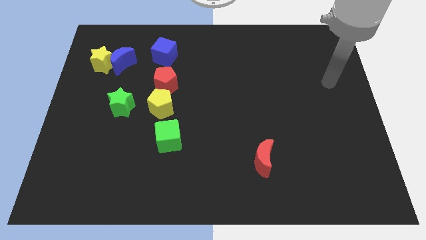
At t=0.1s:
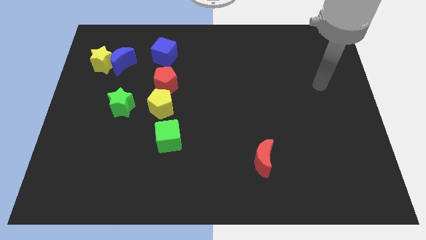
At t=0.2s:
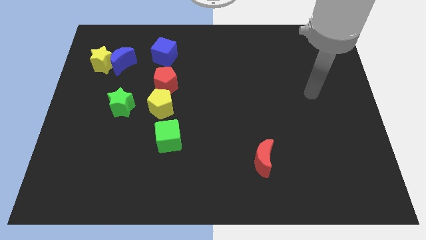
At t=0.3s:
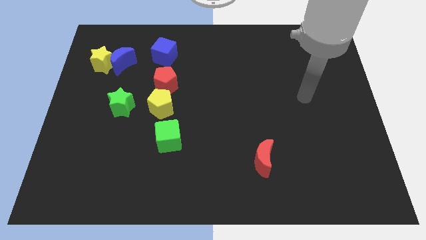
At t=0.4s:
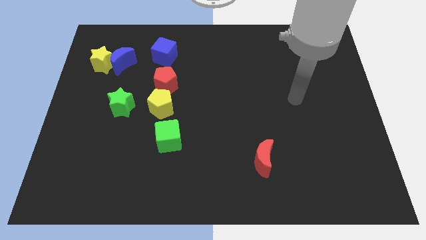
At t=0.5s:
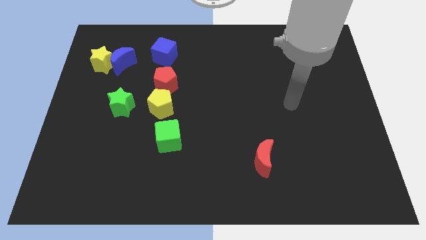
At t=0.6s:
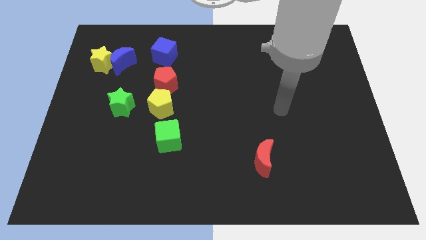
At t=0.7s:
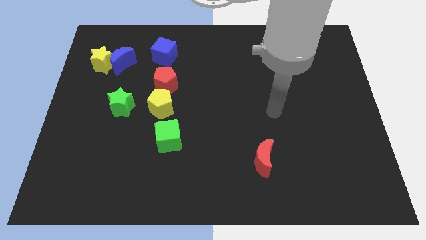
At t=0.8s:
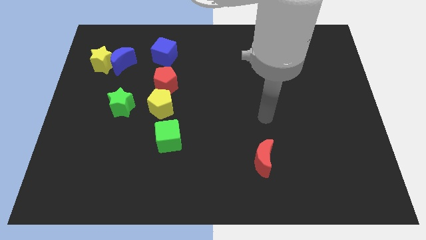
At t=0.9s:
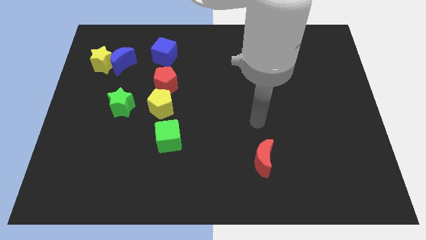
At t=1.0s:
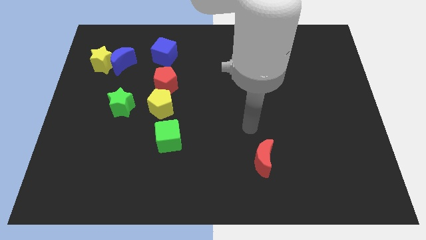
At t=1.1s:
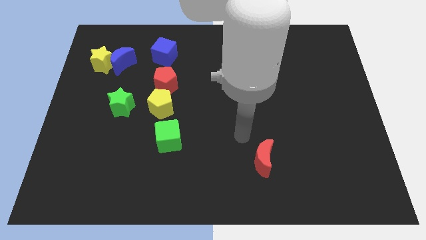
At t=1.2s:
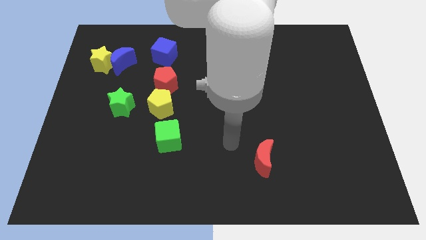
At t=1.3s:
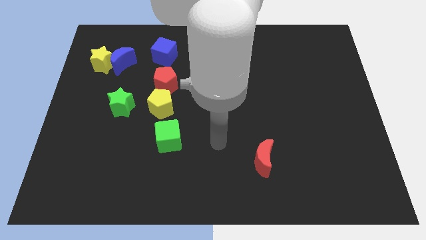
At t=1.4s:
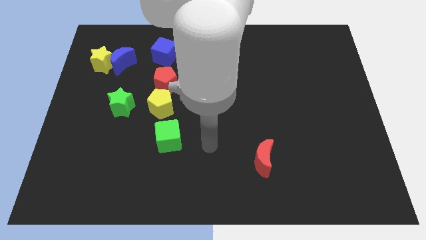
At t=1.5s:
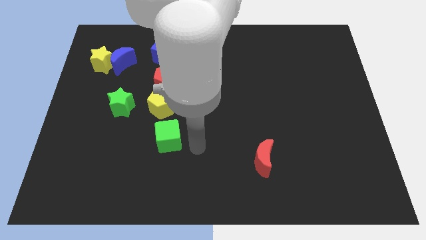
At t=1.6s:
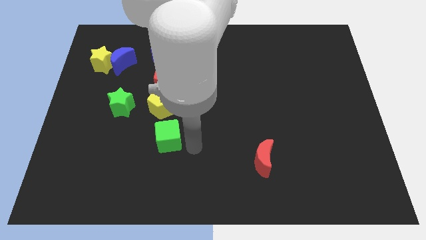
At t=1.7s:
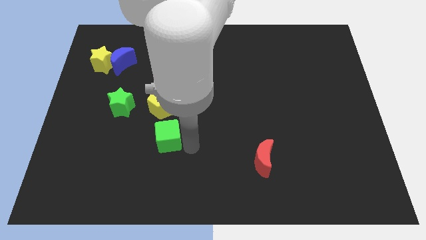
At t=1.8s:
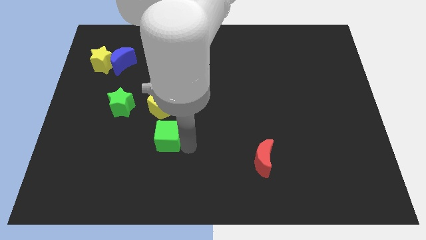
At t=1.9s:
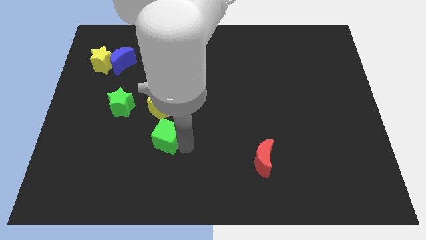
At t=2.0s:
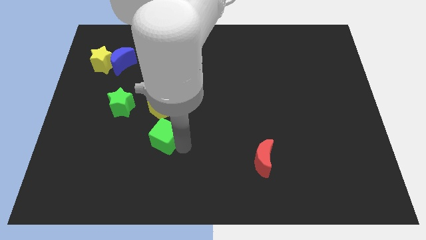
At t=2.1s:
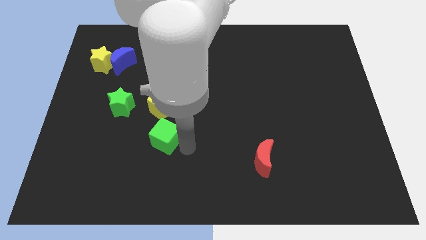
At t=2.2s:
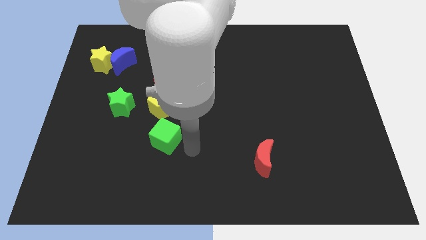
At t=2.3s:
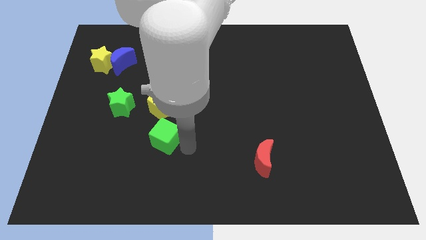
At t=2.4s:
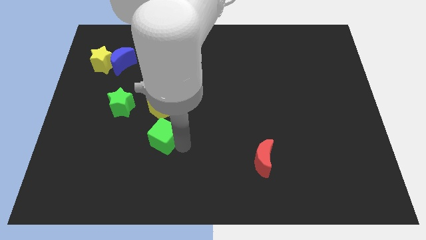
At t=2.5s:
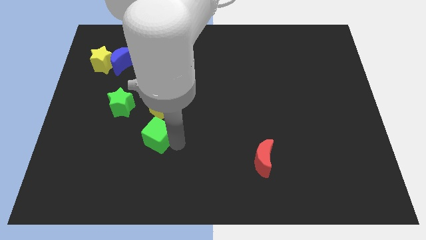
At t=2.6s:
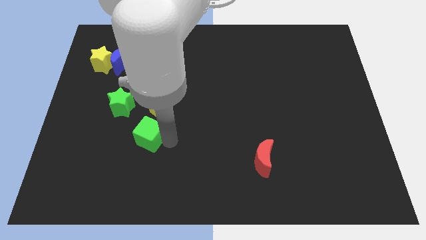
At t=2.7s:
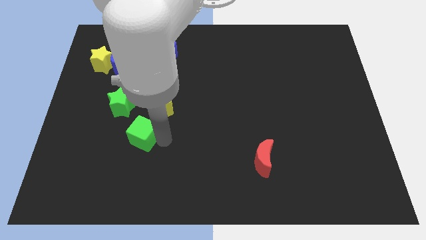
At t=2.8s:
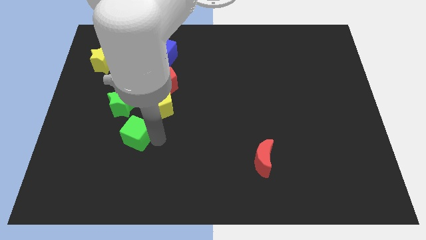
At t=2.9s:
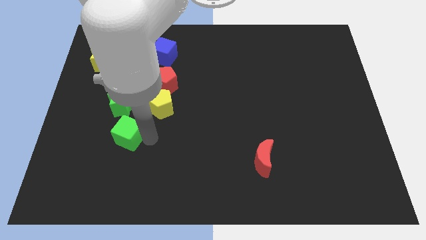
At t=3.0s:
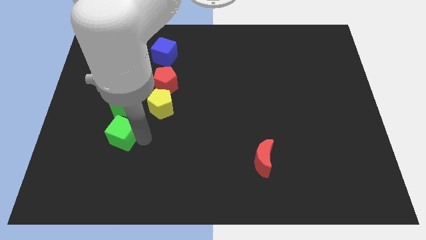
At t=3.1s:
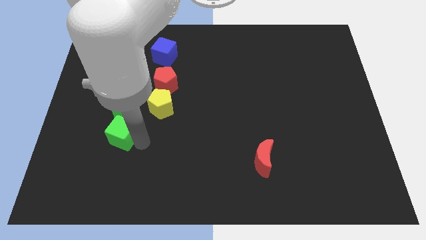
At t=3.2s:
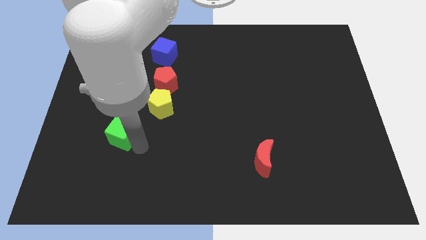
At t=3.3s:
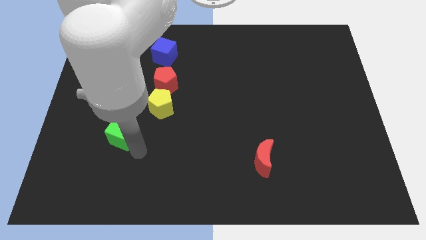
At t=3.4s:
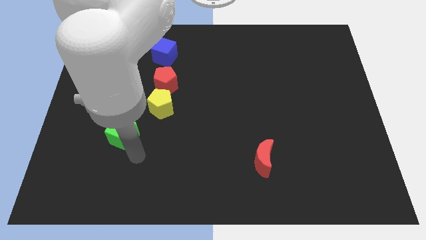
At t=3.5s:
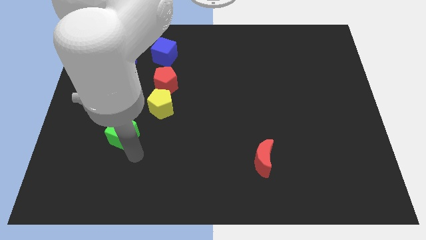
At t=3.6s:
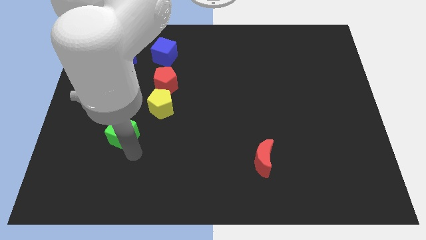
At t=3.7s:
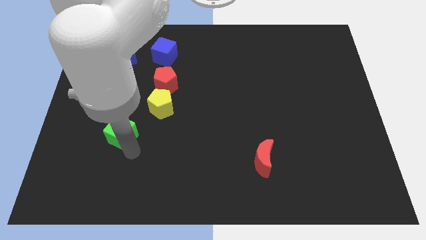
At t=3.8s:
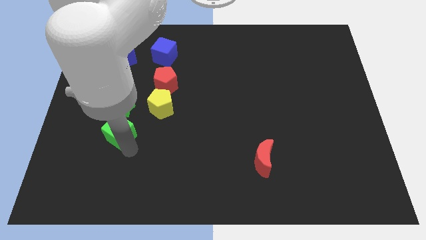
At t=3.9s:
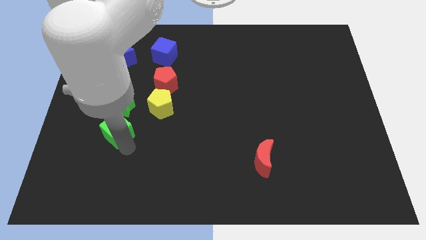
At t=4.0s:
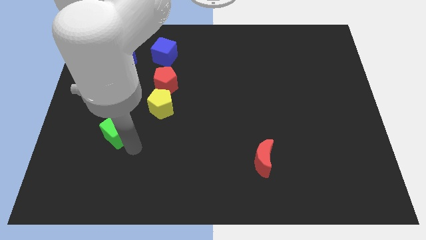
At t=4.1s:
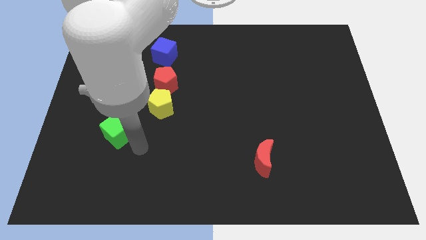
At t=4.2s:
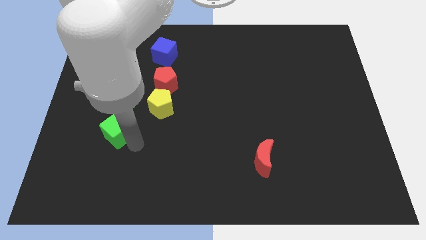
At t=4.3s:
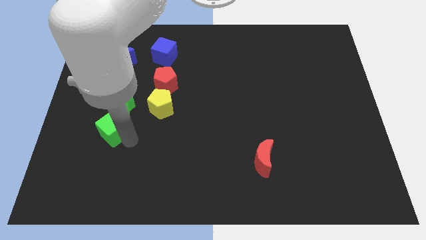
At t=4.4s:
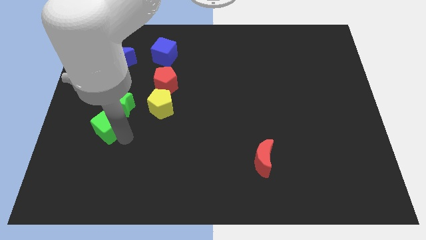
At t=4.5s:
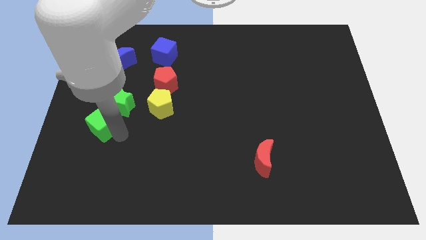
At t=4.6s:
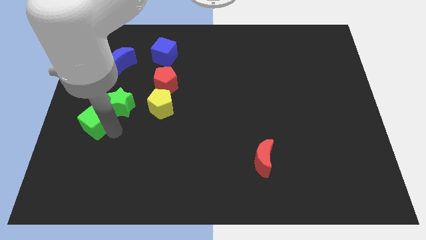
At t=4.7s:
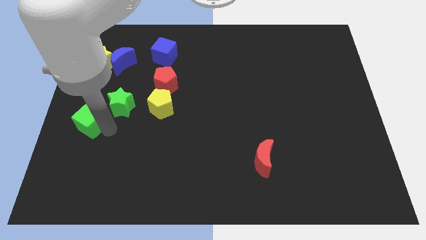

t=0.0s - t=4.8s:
push the green cube to the left side of the board
